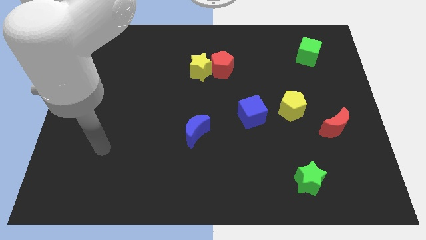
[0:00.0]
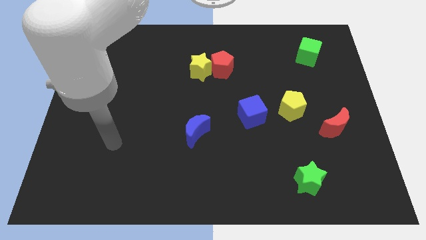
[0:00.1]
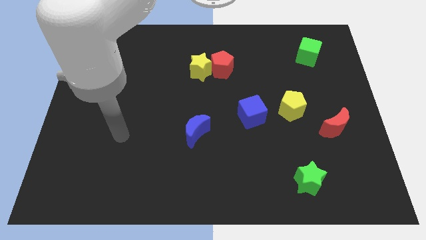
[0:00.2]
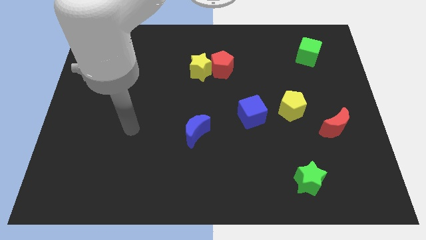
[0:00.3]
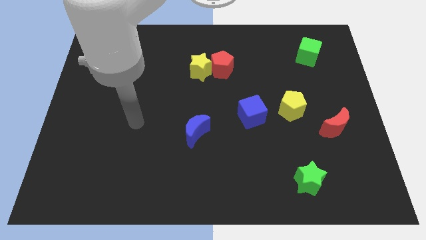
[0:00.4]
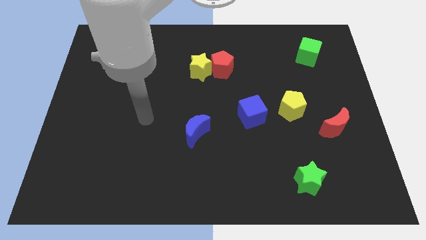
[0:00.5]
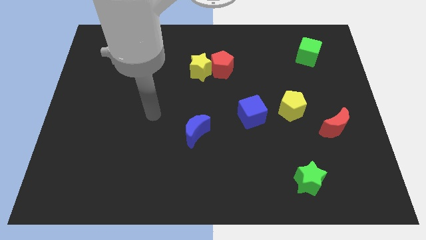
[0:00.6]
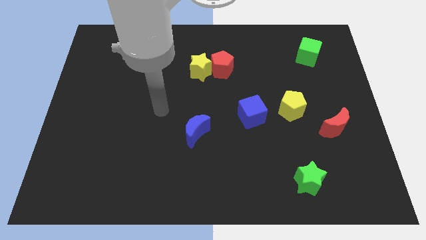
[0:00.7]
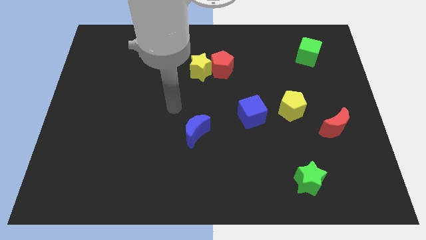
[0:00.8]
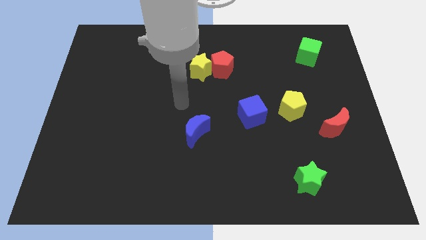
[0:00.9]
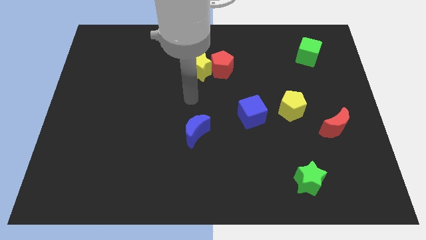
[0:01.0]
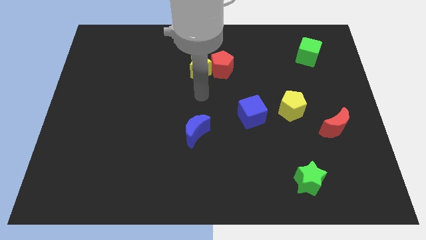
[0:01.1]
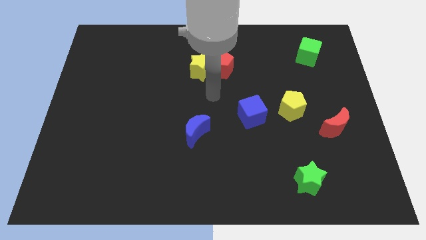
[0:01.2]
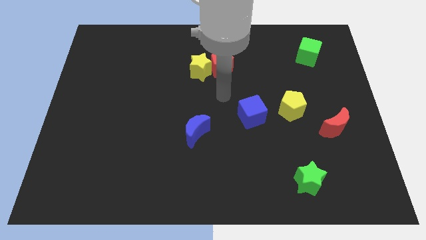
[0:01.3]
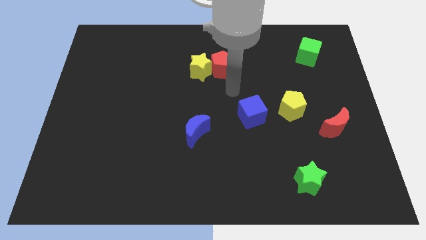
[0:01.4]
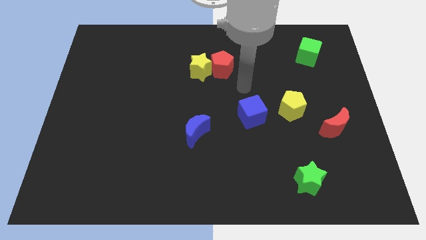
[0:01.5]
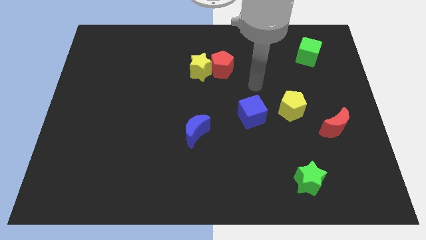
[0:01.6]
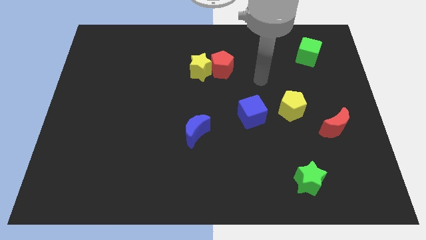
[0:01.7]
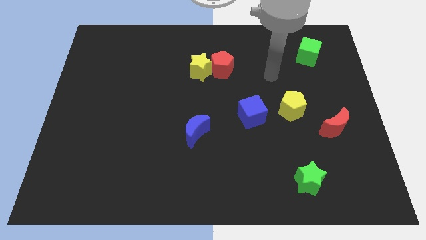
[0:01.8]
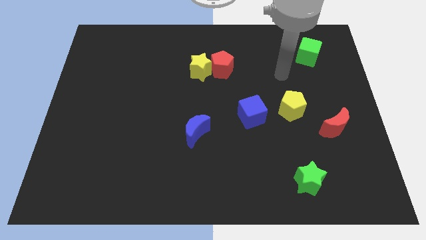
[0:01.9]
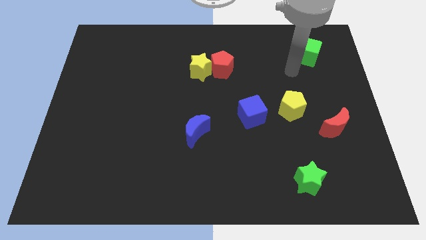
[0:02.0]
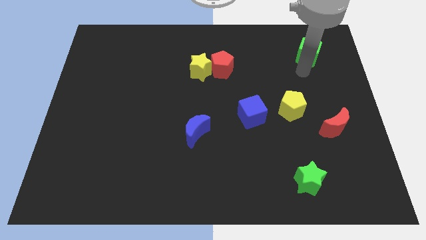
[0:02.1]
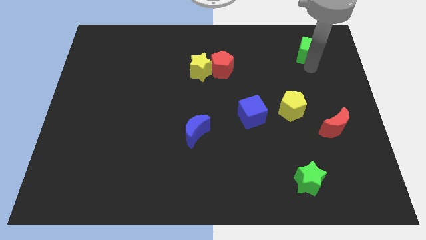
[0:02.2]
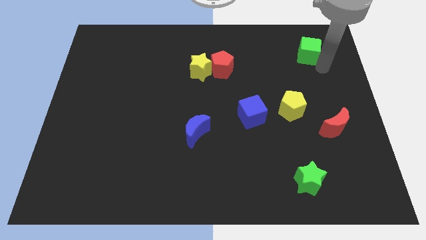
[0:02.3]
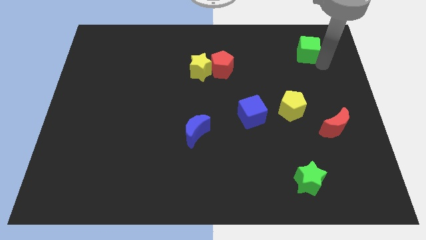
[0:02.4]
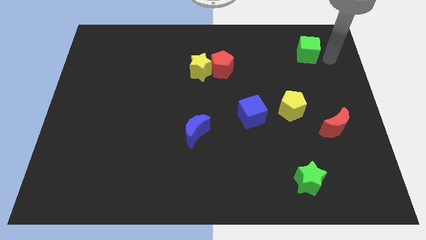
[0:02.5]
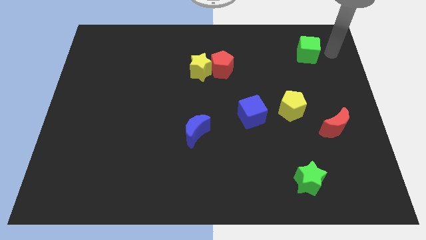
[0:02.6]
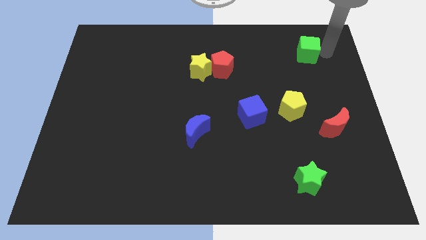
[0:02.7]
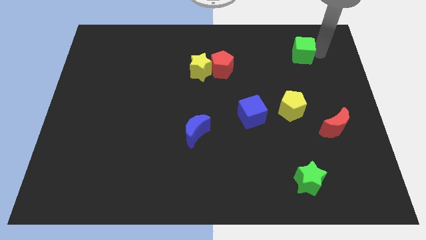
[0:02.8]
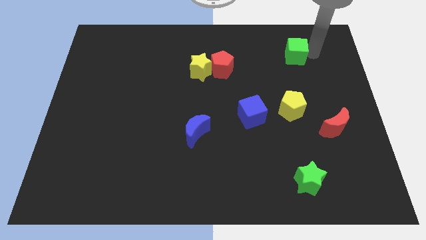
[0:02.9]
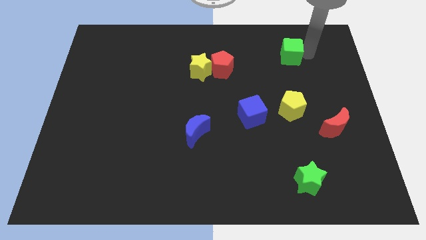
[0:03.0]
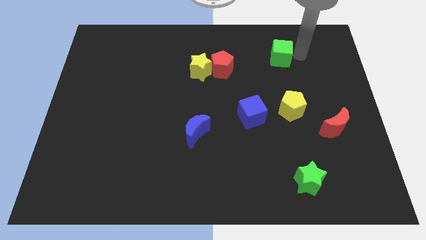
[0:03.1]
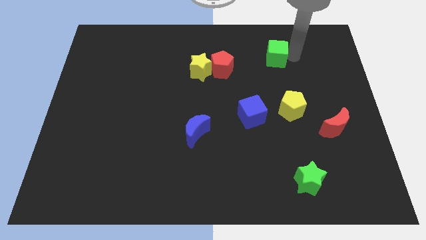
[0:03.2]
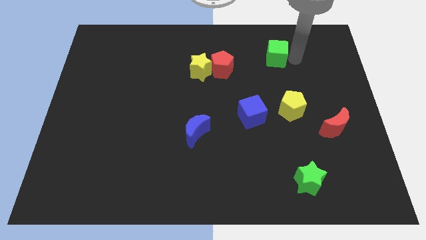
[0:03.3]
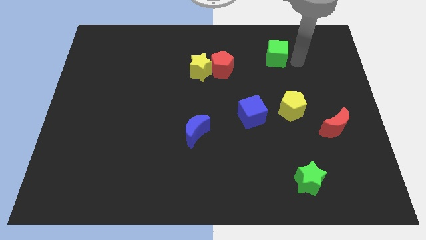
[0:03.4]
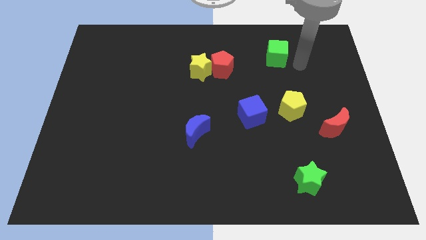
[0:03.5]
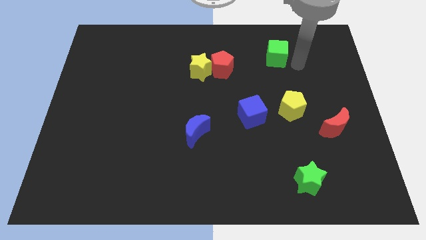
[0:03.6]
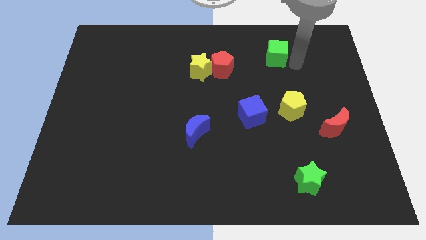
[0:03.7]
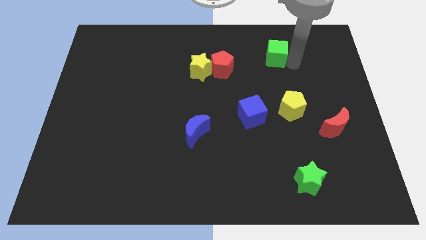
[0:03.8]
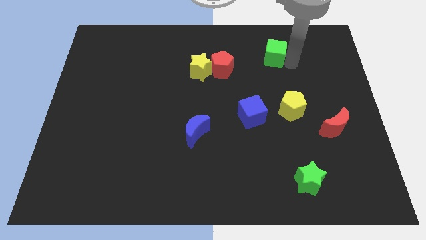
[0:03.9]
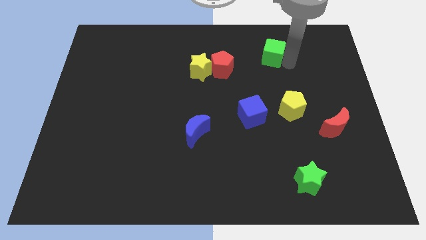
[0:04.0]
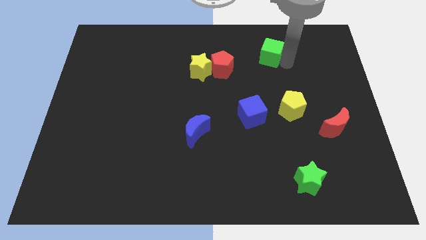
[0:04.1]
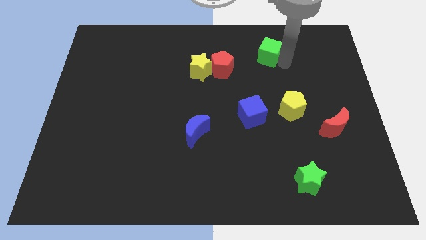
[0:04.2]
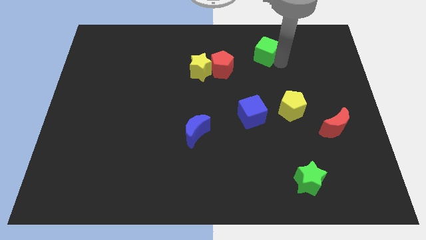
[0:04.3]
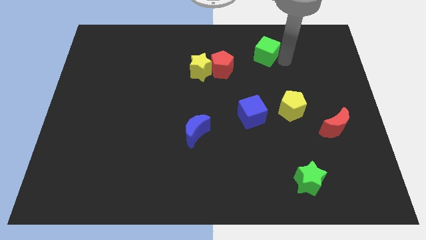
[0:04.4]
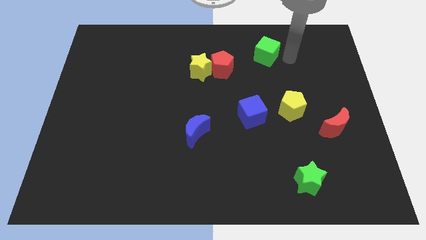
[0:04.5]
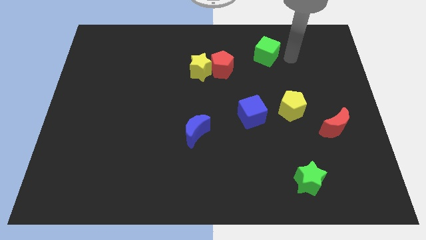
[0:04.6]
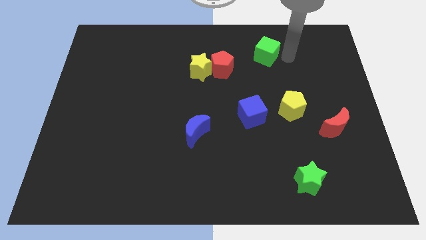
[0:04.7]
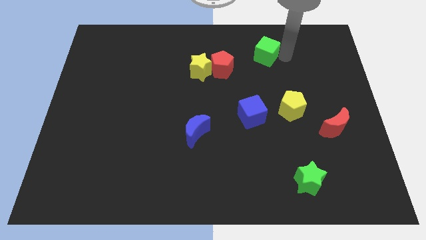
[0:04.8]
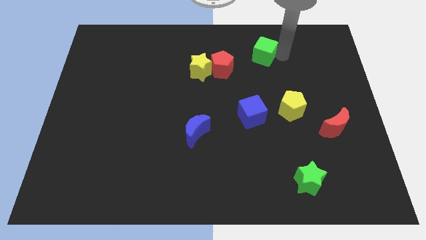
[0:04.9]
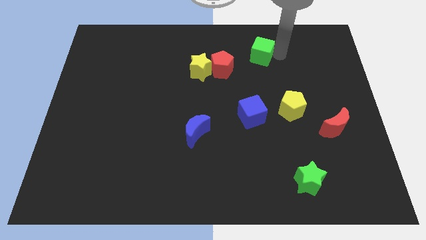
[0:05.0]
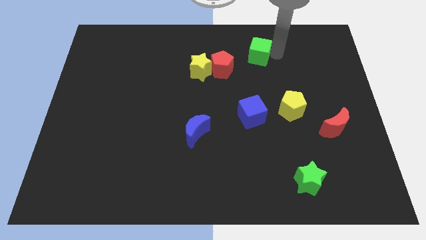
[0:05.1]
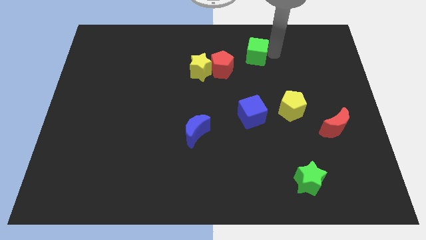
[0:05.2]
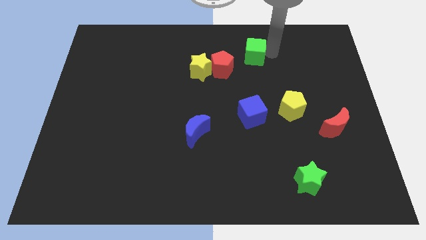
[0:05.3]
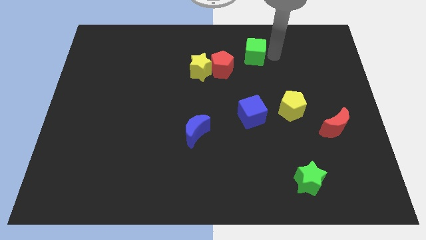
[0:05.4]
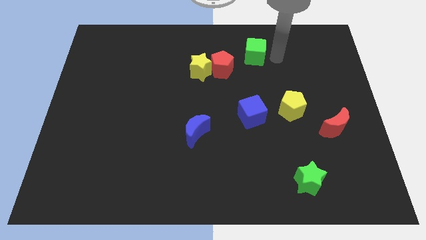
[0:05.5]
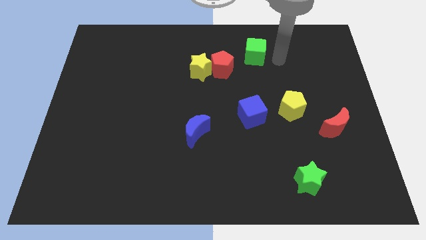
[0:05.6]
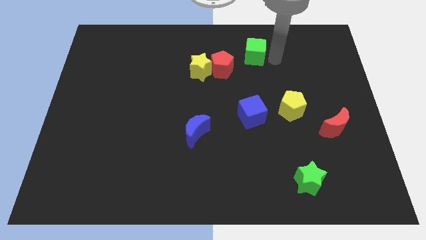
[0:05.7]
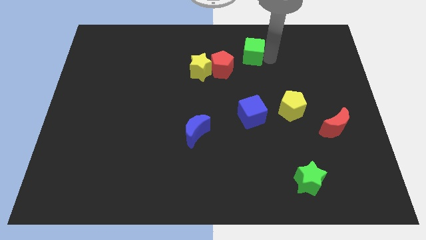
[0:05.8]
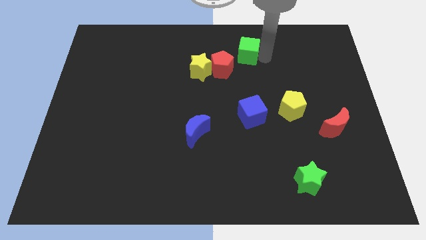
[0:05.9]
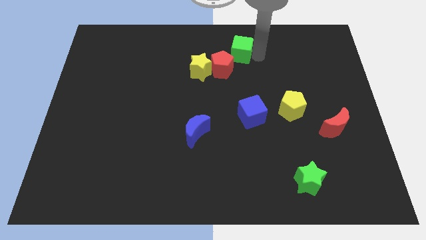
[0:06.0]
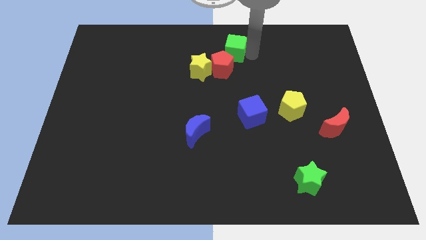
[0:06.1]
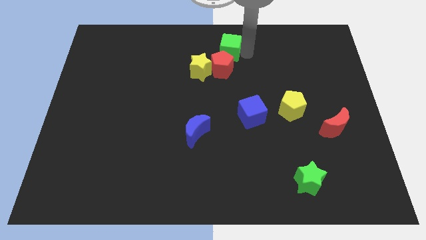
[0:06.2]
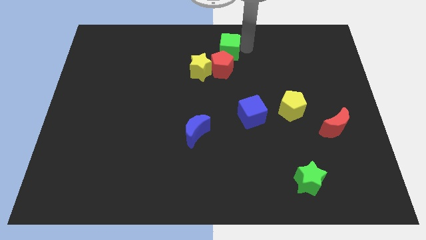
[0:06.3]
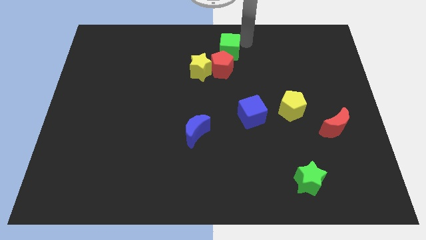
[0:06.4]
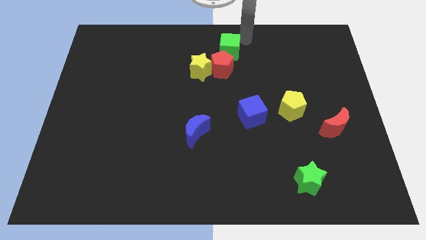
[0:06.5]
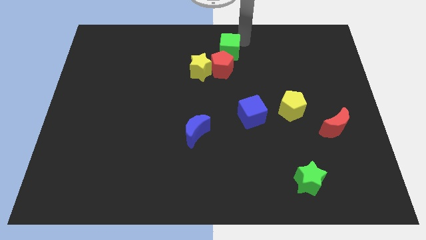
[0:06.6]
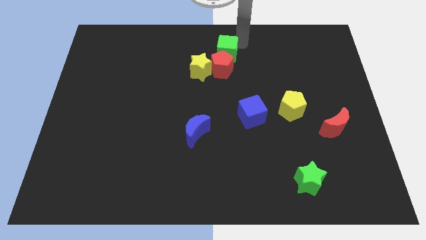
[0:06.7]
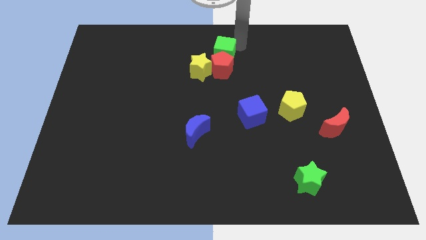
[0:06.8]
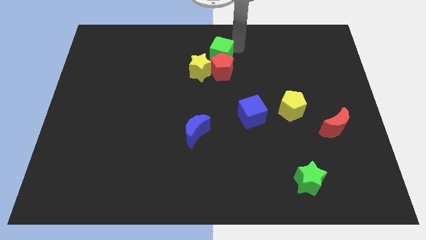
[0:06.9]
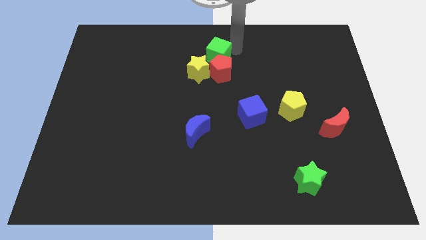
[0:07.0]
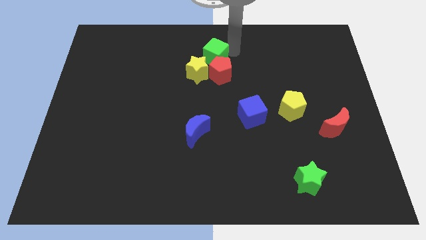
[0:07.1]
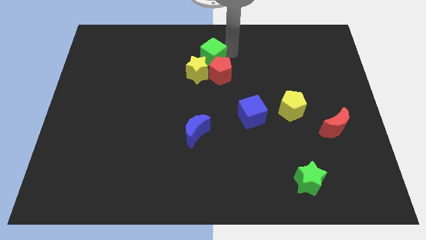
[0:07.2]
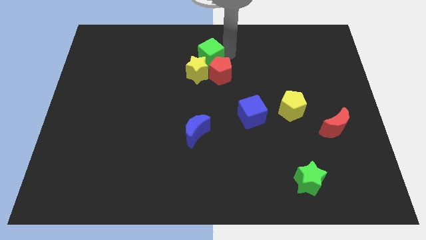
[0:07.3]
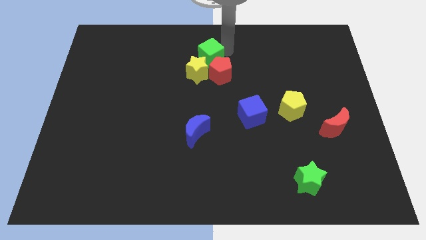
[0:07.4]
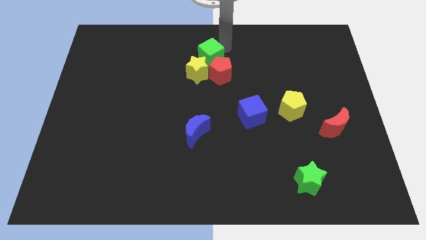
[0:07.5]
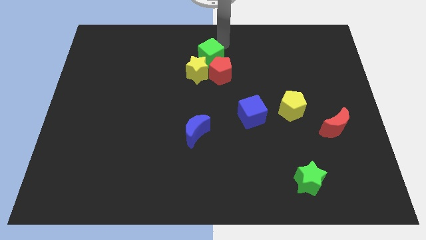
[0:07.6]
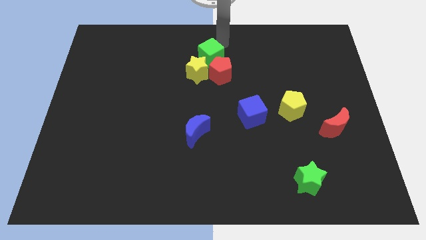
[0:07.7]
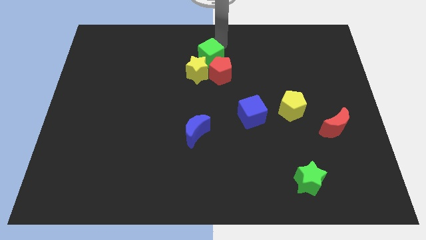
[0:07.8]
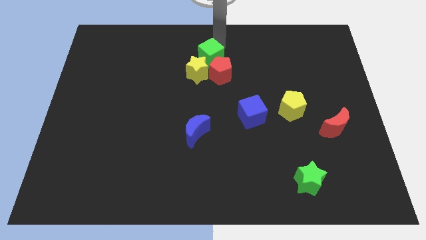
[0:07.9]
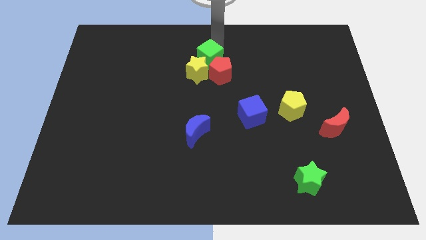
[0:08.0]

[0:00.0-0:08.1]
put the green cube close to the yellow star
